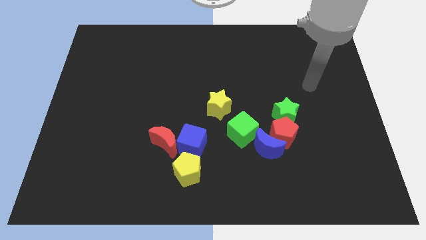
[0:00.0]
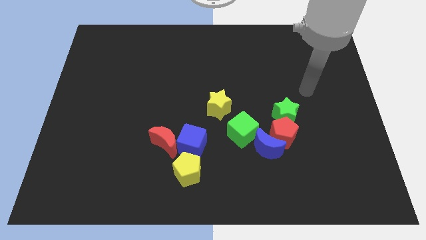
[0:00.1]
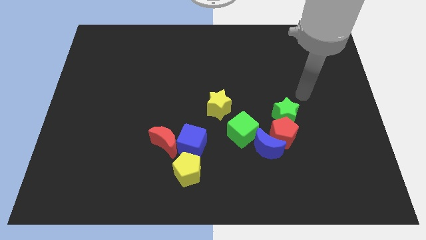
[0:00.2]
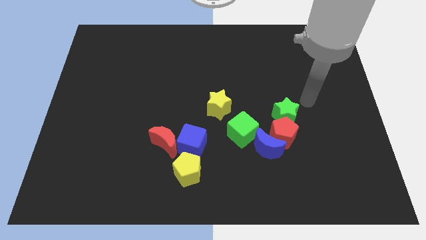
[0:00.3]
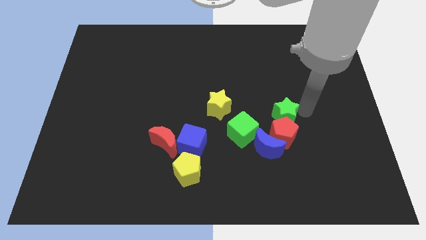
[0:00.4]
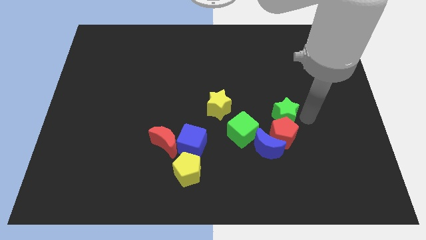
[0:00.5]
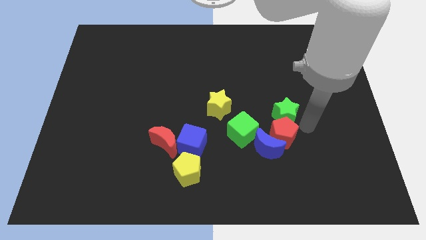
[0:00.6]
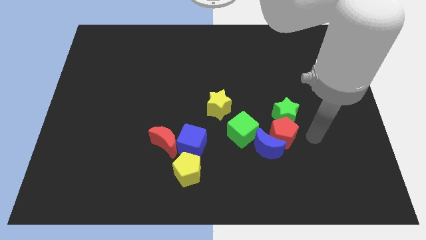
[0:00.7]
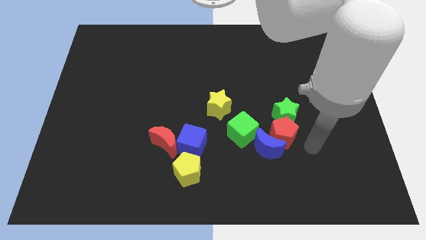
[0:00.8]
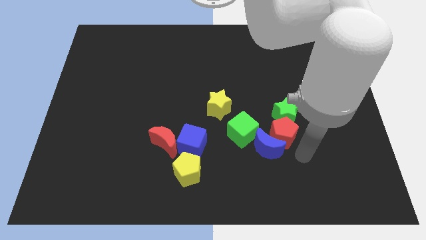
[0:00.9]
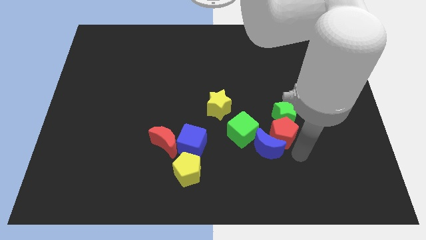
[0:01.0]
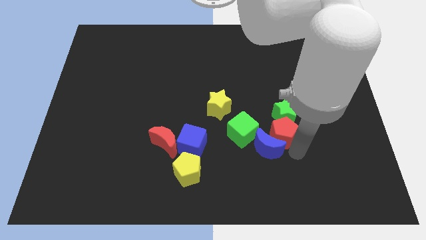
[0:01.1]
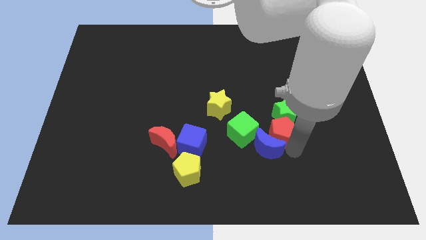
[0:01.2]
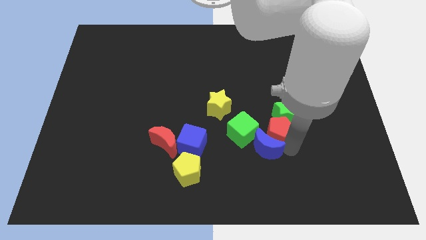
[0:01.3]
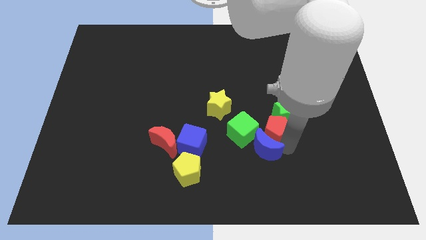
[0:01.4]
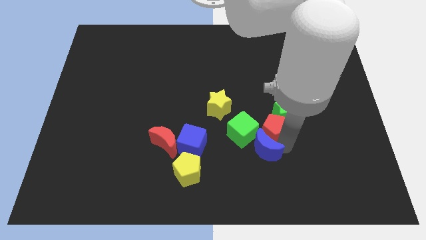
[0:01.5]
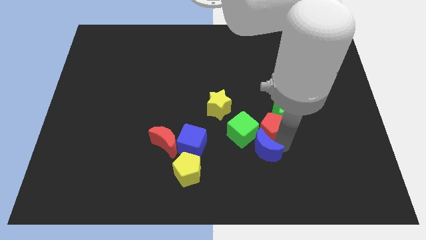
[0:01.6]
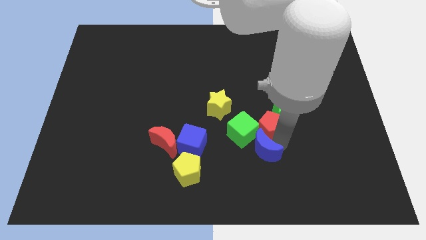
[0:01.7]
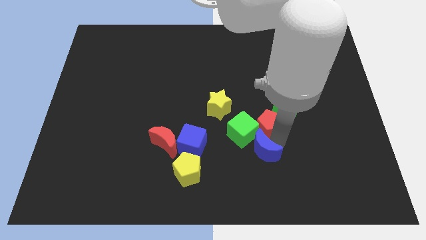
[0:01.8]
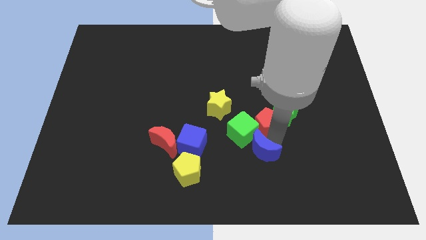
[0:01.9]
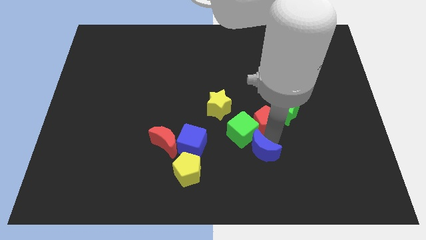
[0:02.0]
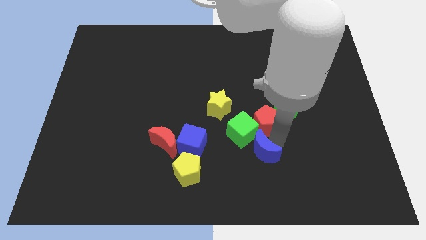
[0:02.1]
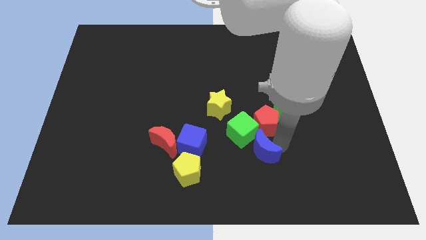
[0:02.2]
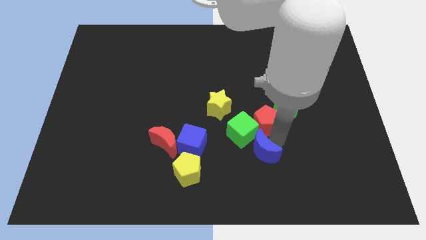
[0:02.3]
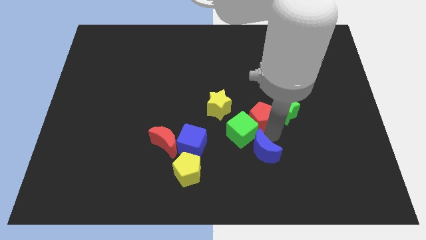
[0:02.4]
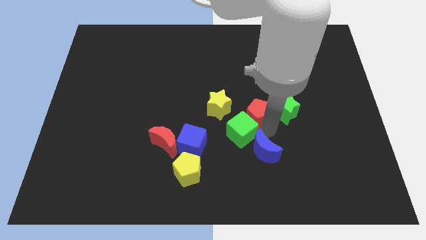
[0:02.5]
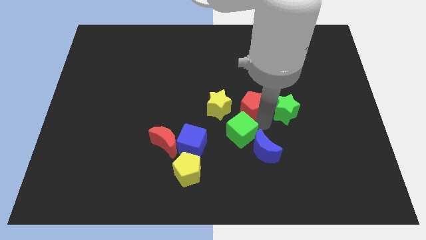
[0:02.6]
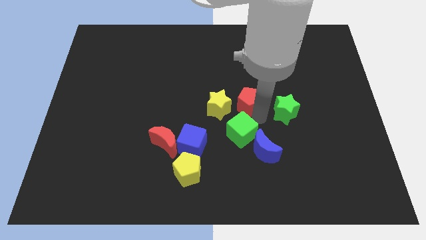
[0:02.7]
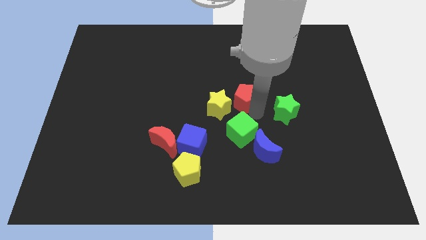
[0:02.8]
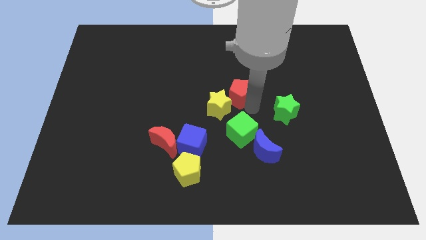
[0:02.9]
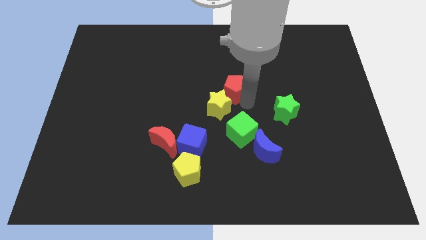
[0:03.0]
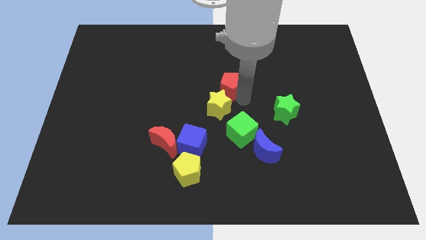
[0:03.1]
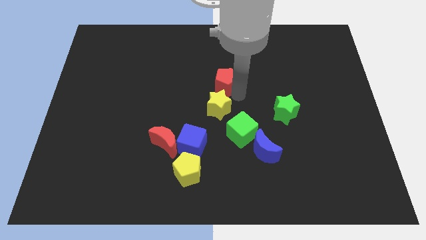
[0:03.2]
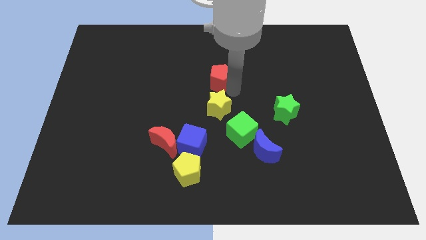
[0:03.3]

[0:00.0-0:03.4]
slide the red pentagon up and then to the left

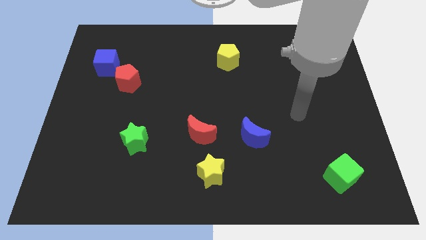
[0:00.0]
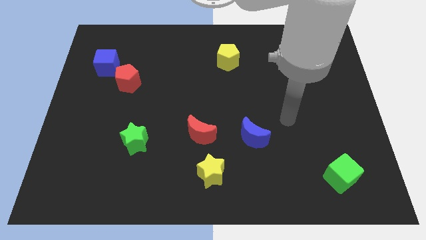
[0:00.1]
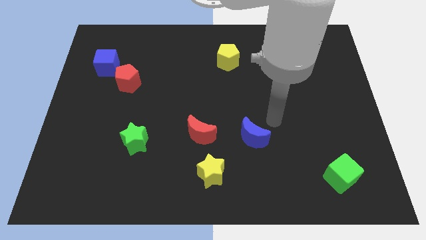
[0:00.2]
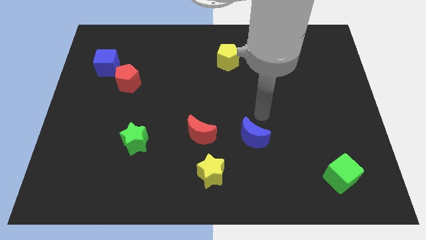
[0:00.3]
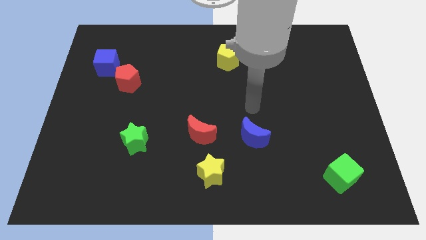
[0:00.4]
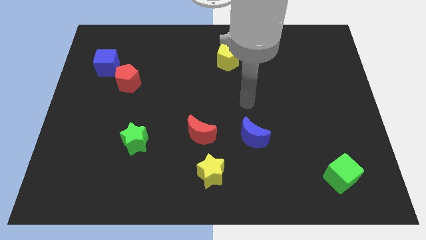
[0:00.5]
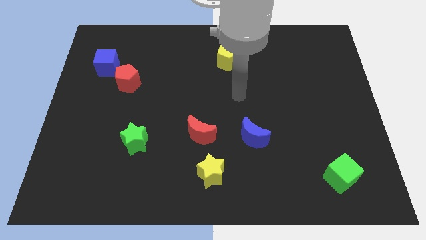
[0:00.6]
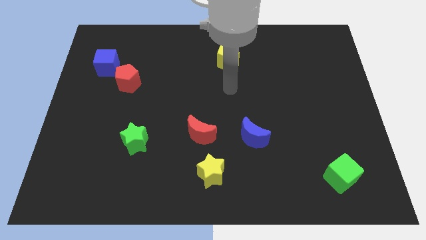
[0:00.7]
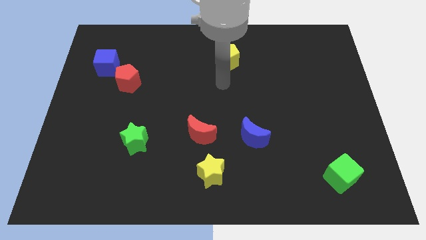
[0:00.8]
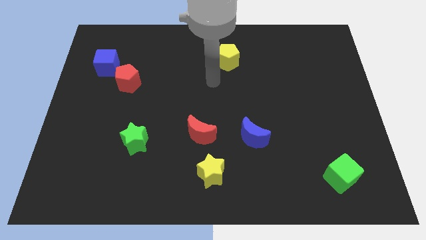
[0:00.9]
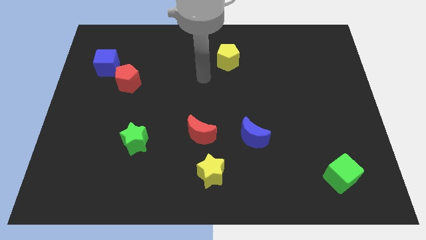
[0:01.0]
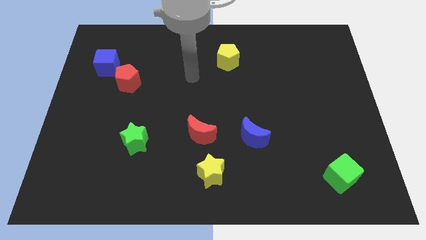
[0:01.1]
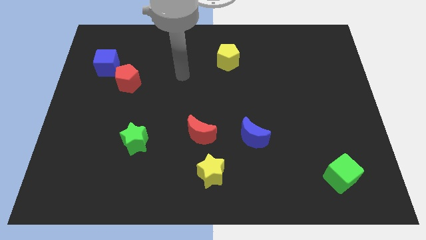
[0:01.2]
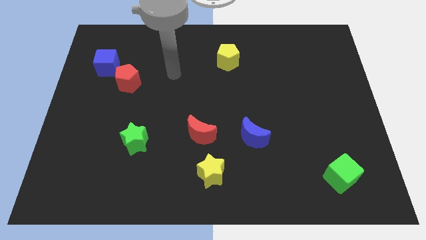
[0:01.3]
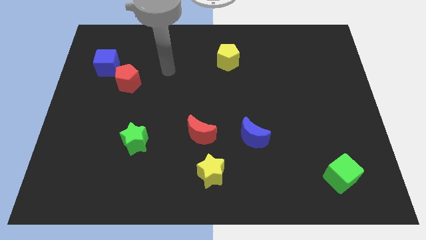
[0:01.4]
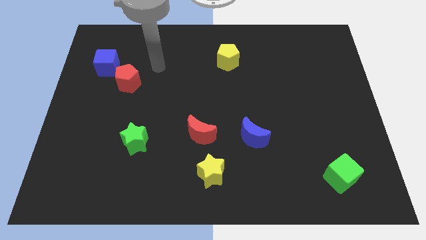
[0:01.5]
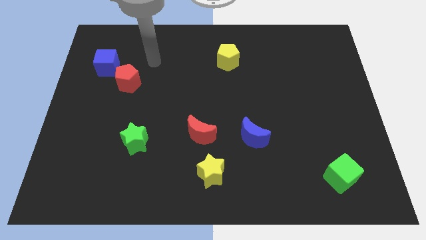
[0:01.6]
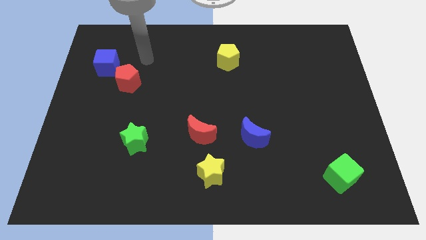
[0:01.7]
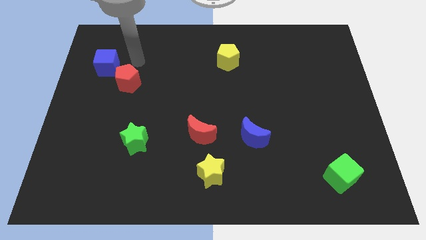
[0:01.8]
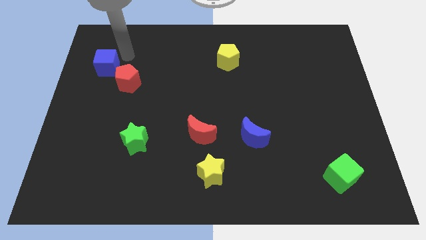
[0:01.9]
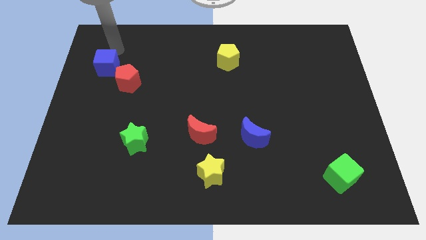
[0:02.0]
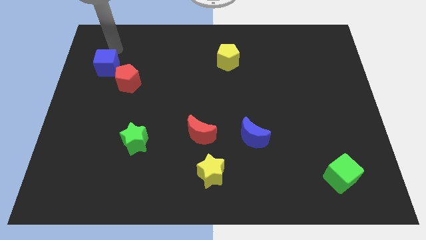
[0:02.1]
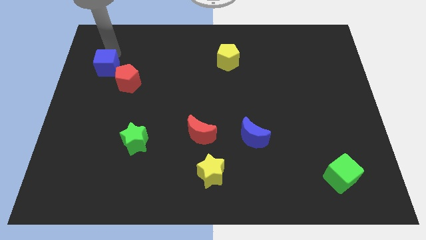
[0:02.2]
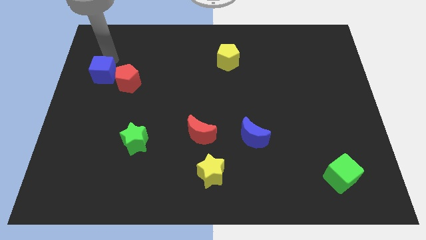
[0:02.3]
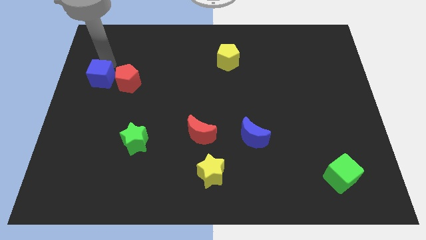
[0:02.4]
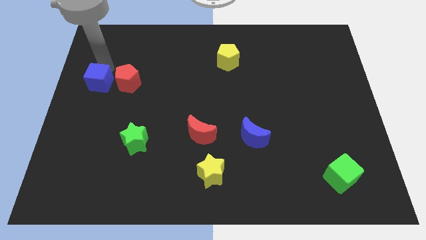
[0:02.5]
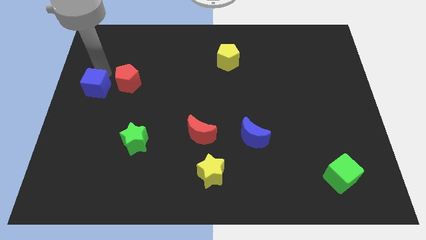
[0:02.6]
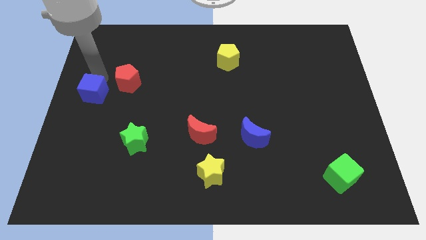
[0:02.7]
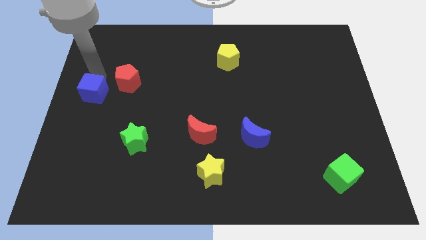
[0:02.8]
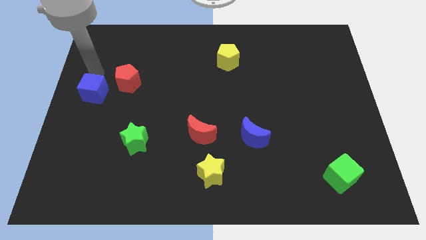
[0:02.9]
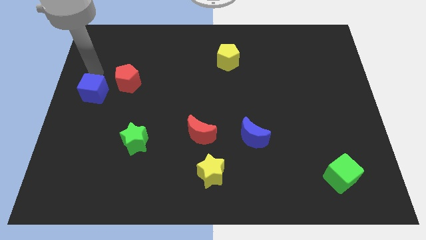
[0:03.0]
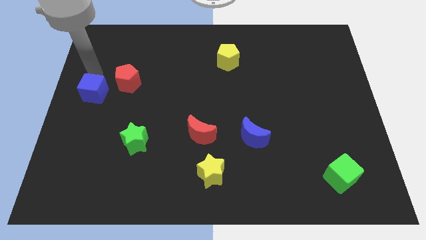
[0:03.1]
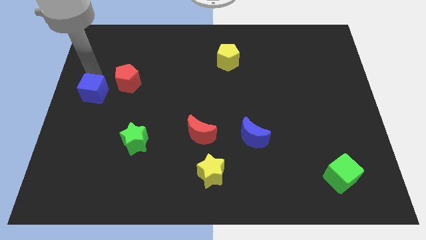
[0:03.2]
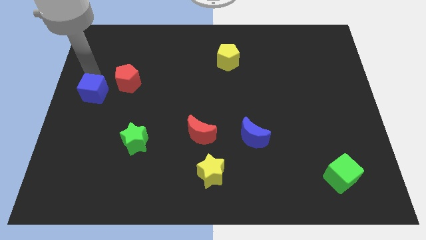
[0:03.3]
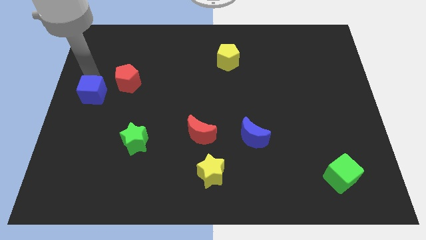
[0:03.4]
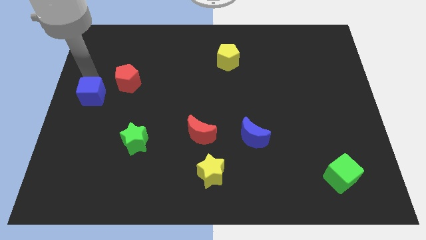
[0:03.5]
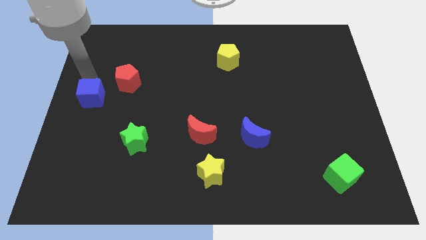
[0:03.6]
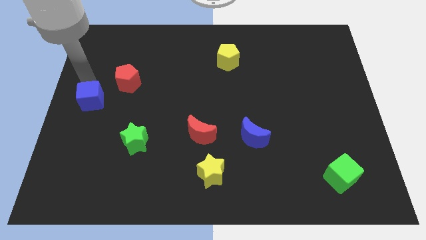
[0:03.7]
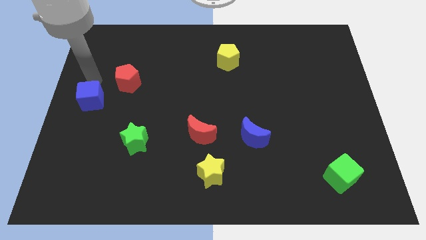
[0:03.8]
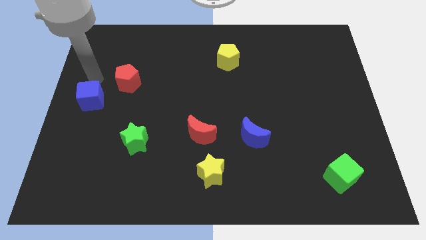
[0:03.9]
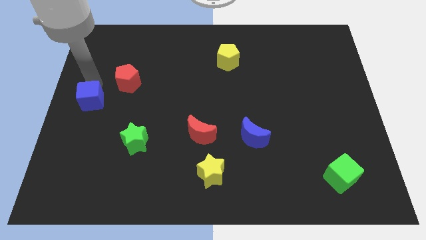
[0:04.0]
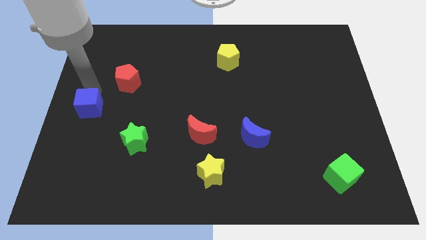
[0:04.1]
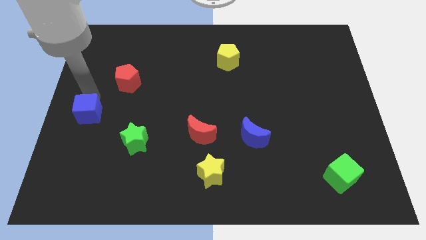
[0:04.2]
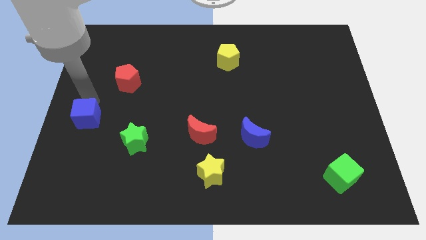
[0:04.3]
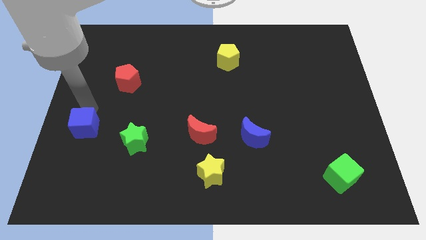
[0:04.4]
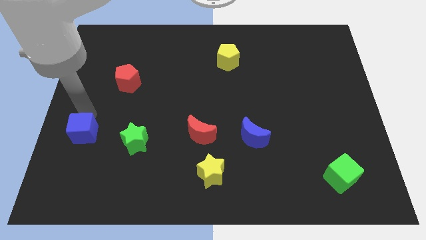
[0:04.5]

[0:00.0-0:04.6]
push the blue cube downwards
